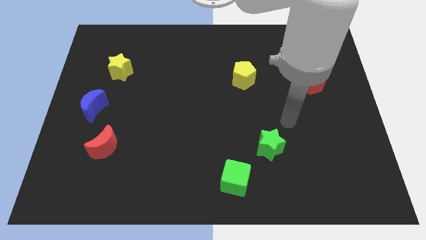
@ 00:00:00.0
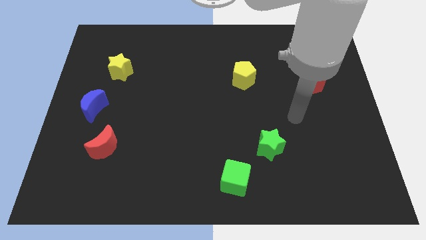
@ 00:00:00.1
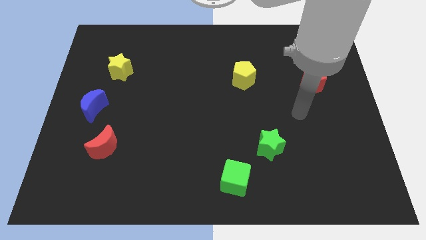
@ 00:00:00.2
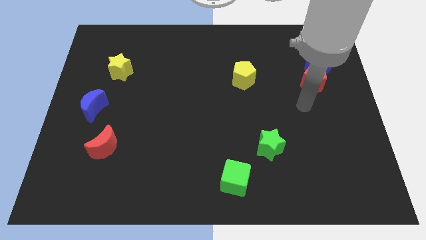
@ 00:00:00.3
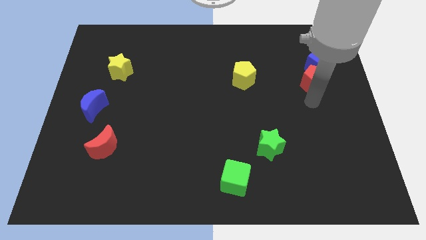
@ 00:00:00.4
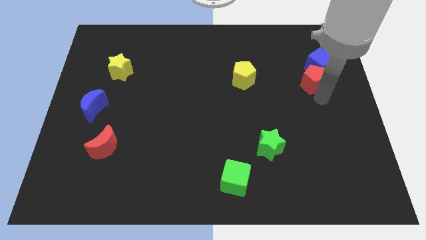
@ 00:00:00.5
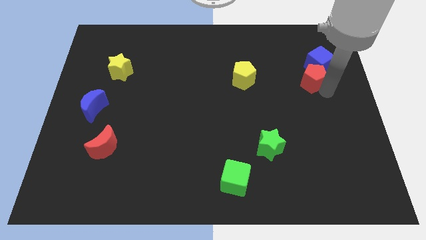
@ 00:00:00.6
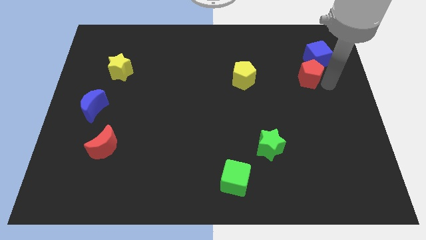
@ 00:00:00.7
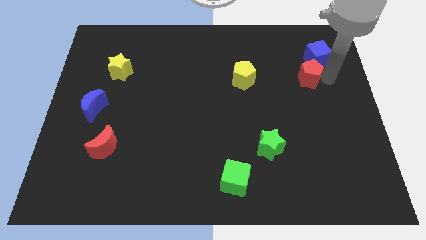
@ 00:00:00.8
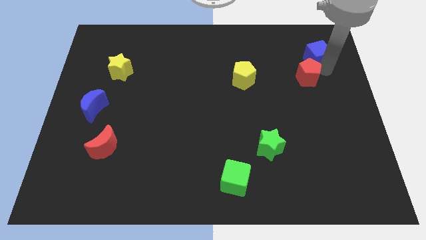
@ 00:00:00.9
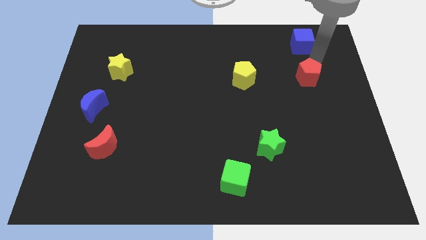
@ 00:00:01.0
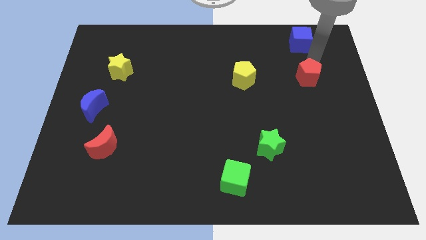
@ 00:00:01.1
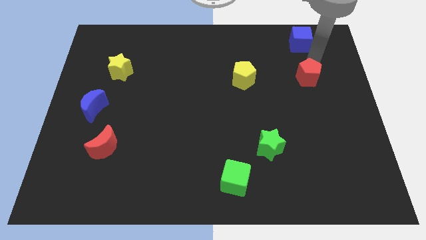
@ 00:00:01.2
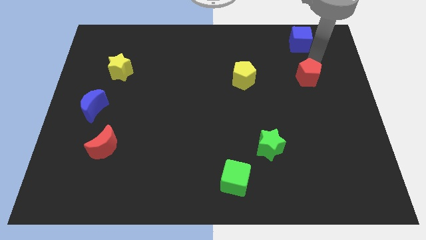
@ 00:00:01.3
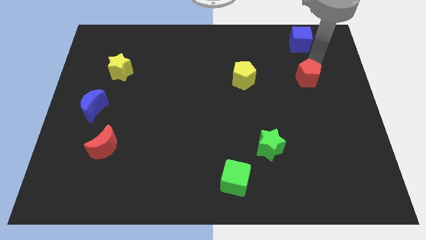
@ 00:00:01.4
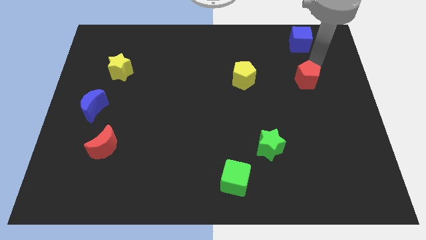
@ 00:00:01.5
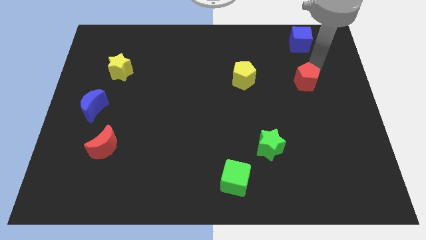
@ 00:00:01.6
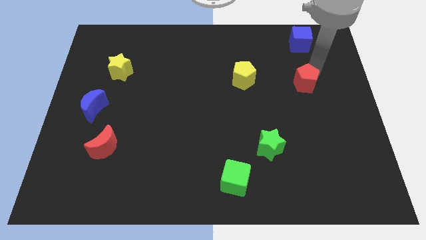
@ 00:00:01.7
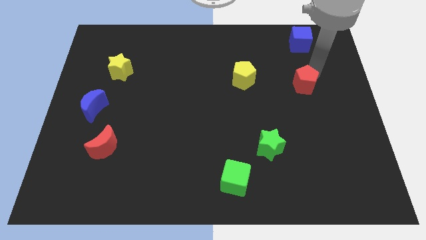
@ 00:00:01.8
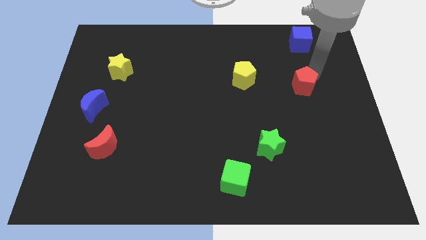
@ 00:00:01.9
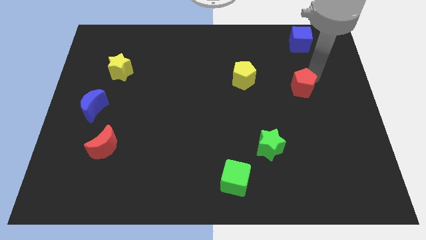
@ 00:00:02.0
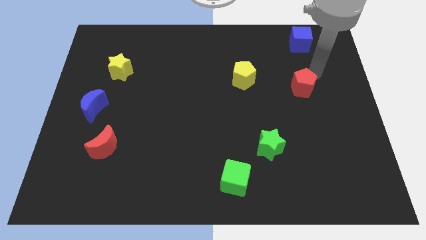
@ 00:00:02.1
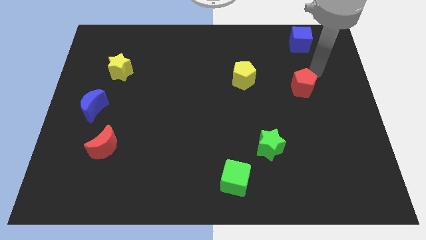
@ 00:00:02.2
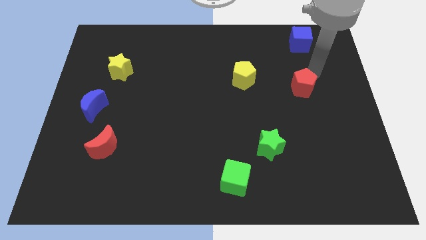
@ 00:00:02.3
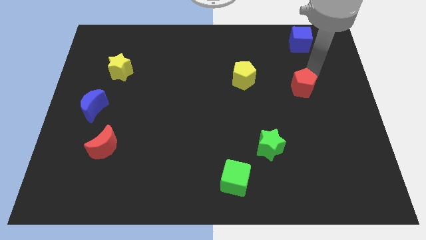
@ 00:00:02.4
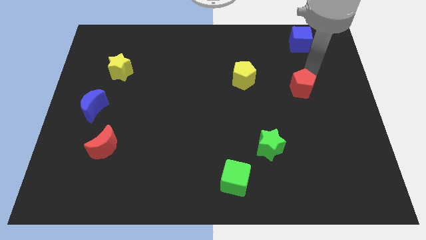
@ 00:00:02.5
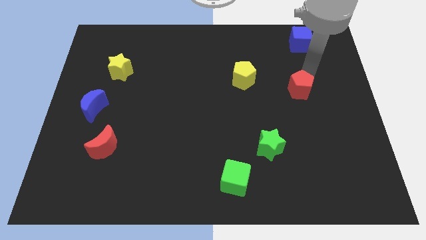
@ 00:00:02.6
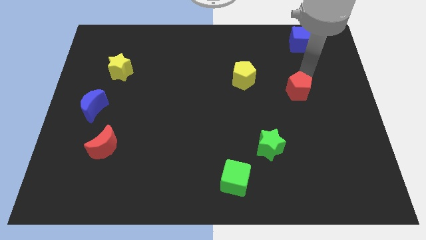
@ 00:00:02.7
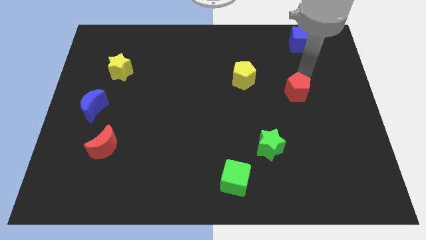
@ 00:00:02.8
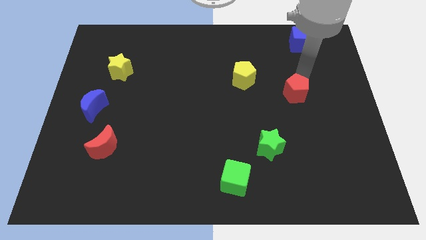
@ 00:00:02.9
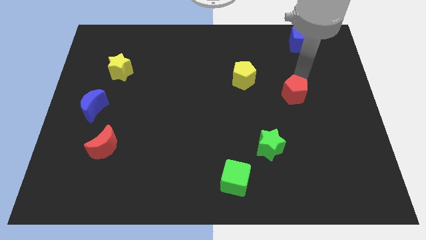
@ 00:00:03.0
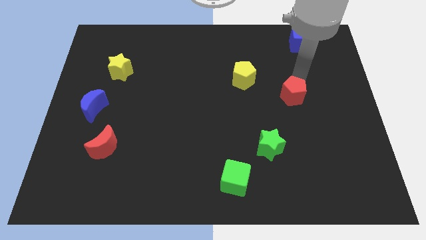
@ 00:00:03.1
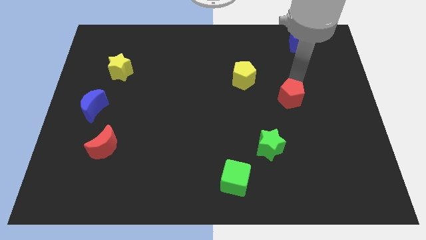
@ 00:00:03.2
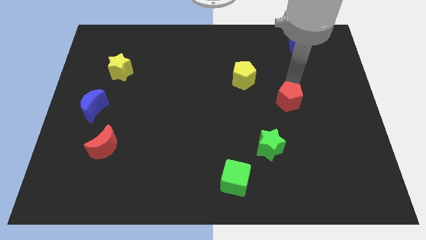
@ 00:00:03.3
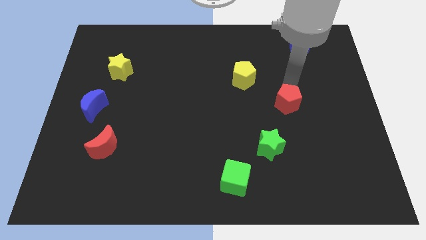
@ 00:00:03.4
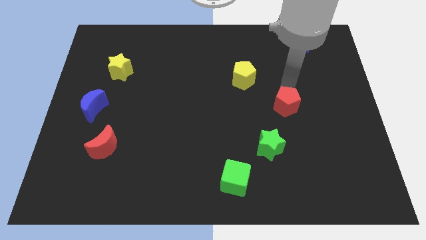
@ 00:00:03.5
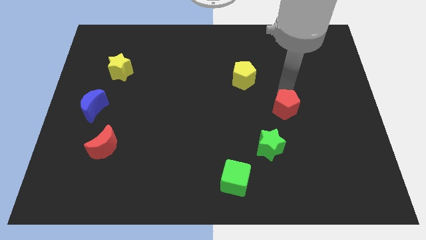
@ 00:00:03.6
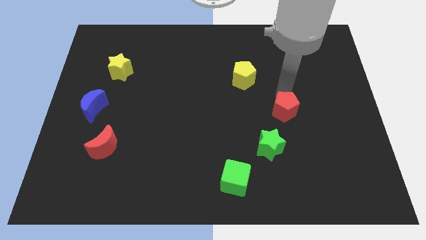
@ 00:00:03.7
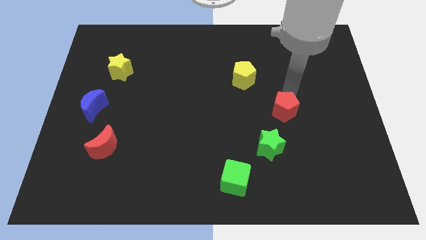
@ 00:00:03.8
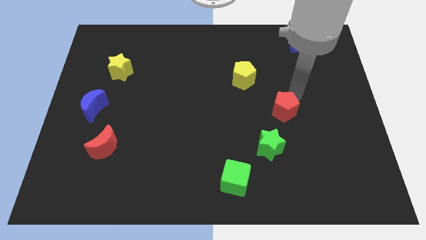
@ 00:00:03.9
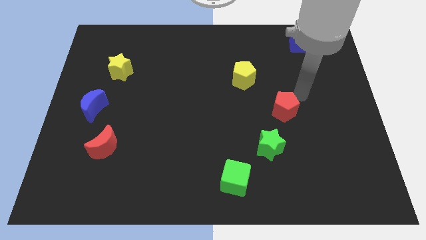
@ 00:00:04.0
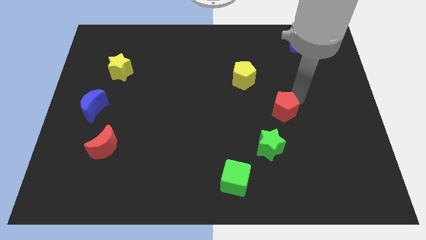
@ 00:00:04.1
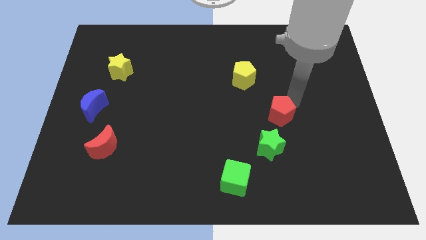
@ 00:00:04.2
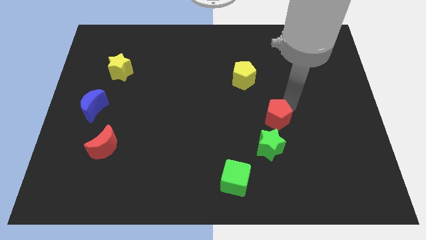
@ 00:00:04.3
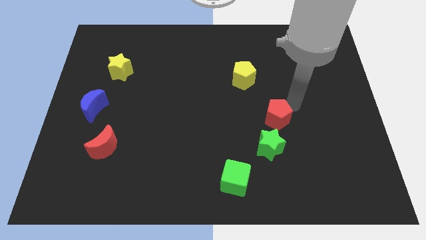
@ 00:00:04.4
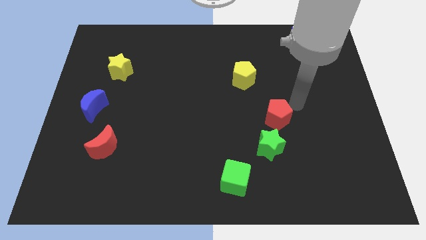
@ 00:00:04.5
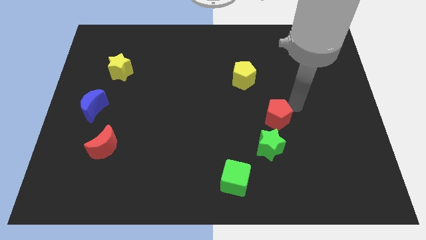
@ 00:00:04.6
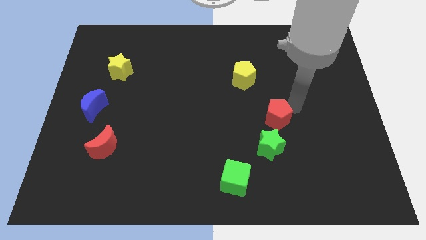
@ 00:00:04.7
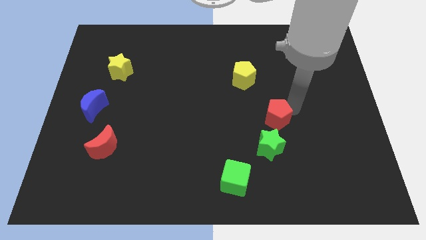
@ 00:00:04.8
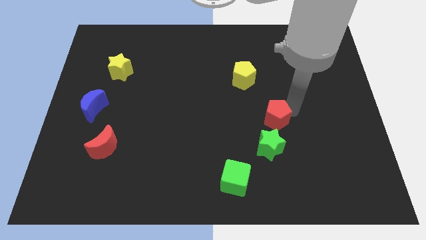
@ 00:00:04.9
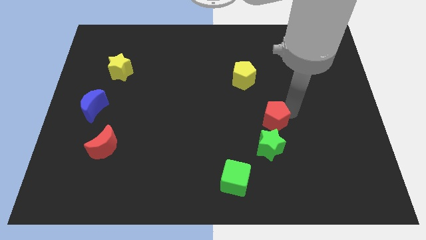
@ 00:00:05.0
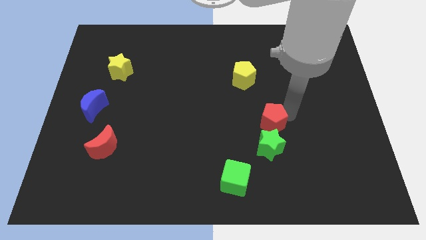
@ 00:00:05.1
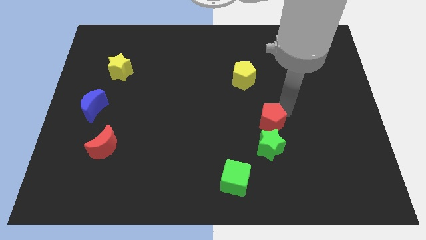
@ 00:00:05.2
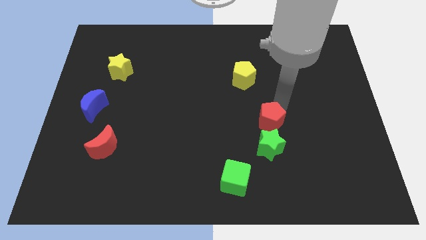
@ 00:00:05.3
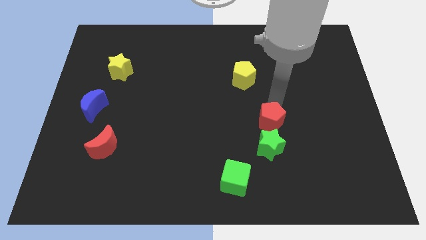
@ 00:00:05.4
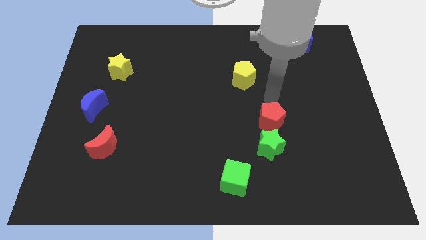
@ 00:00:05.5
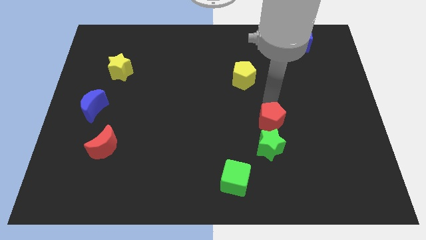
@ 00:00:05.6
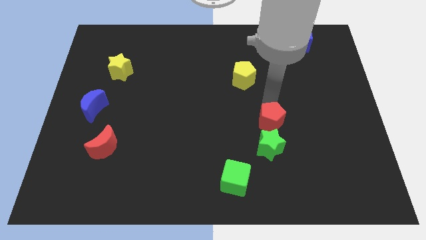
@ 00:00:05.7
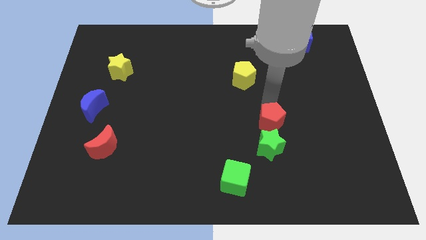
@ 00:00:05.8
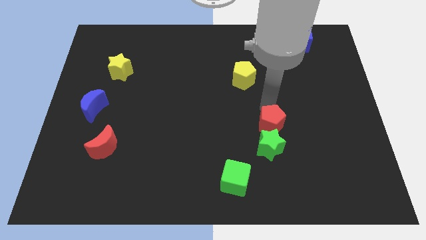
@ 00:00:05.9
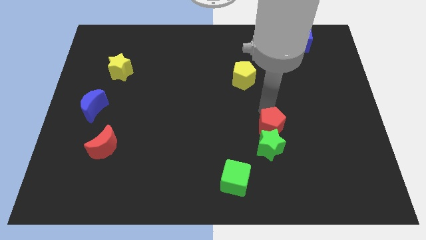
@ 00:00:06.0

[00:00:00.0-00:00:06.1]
slide the red pentagon towards the green star

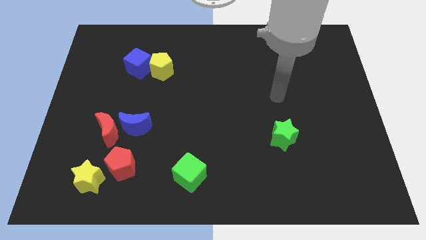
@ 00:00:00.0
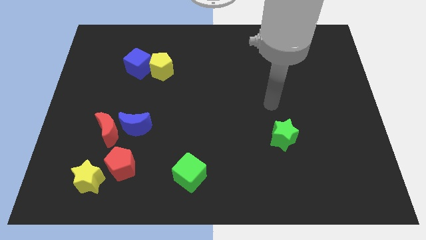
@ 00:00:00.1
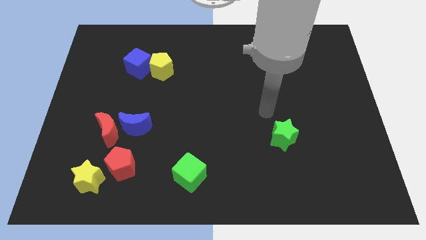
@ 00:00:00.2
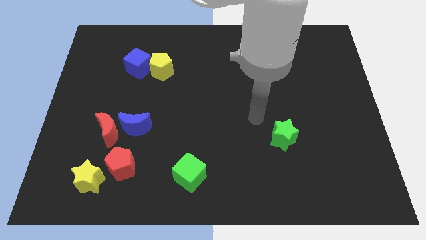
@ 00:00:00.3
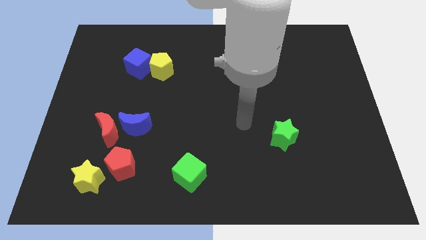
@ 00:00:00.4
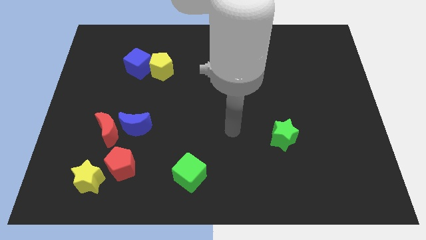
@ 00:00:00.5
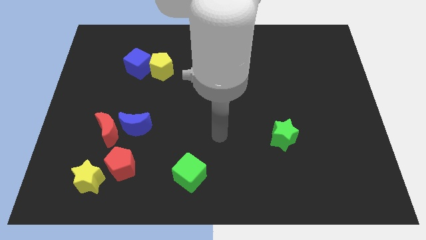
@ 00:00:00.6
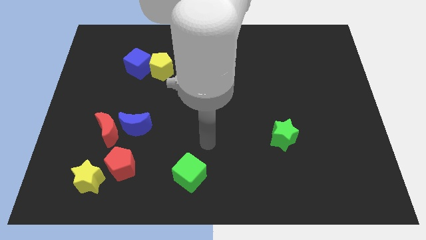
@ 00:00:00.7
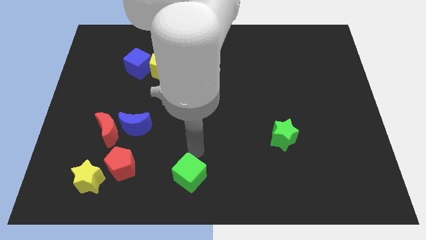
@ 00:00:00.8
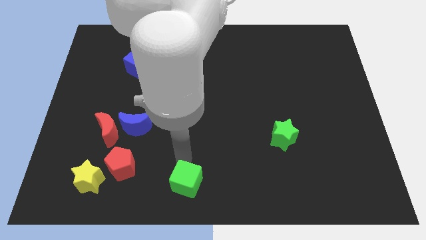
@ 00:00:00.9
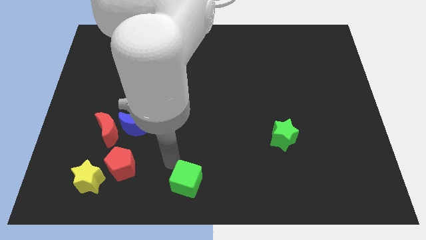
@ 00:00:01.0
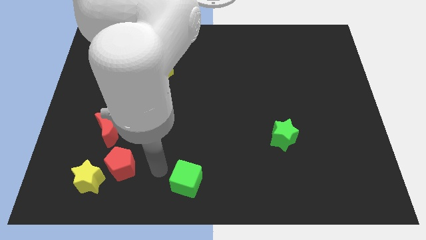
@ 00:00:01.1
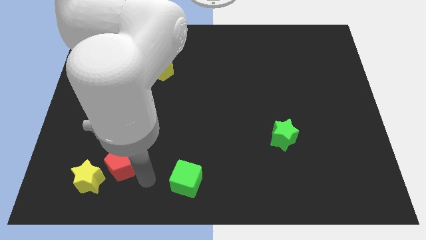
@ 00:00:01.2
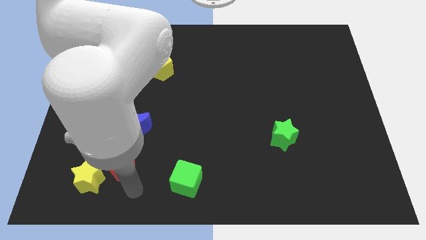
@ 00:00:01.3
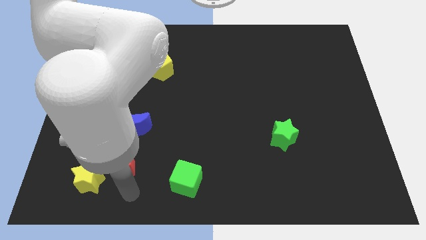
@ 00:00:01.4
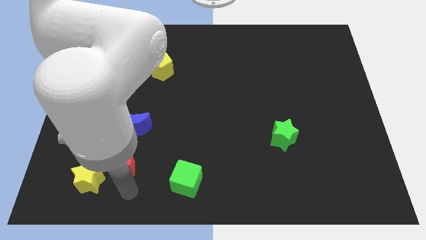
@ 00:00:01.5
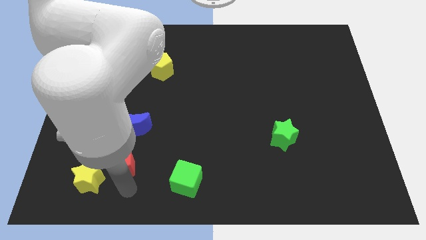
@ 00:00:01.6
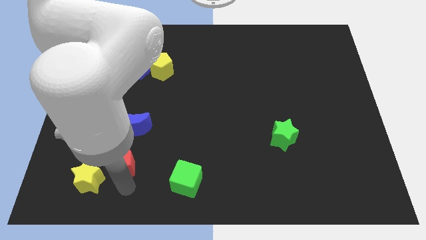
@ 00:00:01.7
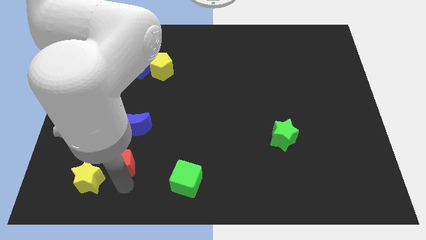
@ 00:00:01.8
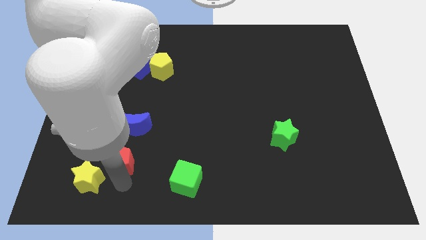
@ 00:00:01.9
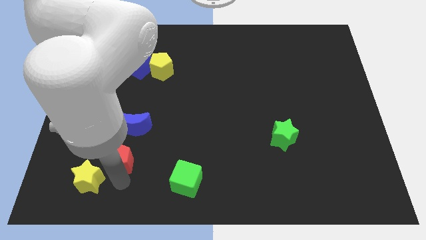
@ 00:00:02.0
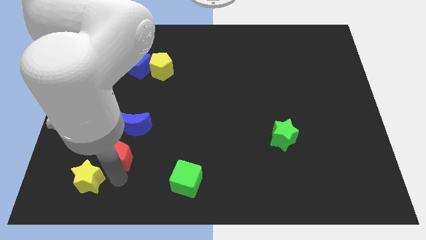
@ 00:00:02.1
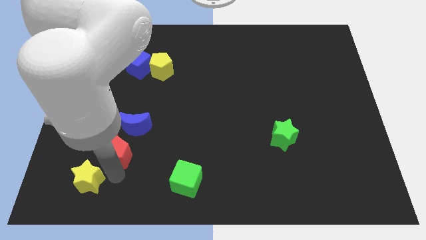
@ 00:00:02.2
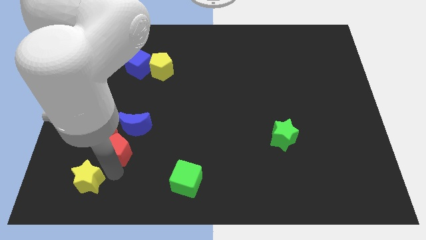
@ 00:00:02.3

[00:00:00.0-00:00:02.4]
push the red pentagon next to the red moon
